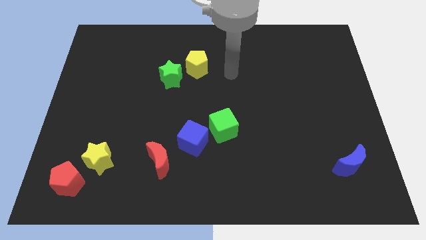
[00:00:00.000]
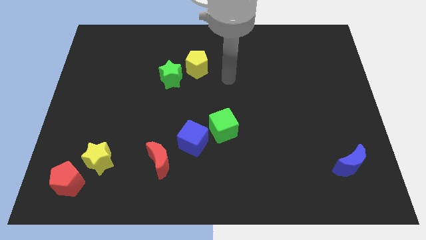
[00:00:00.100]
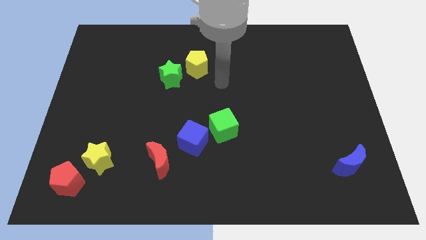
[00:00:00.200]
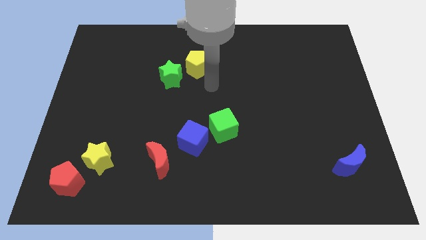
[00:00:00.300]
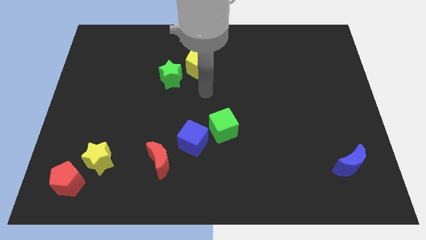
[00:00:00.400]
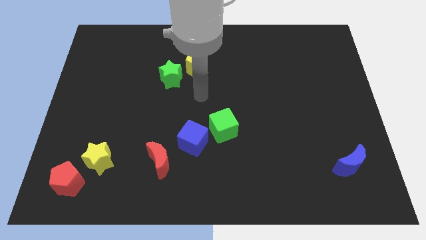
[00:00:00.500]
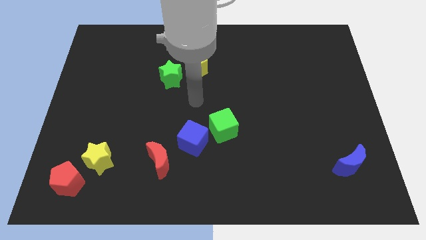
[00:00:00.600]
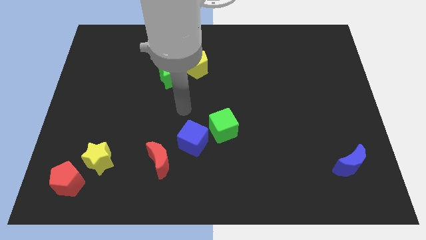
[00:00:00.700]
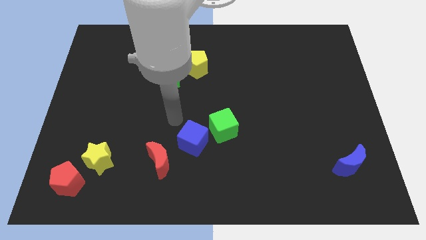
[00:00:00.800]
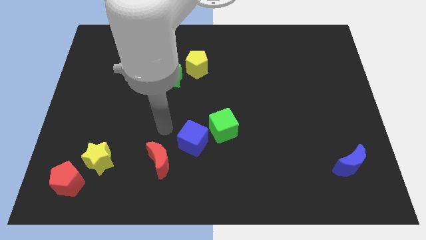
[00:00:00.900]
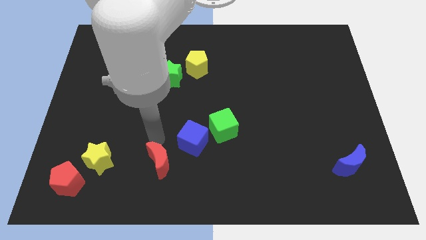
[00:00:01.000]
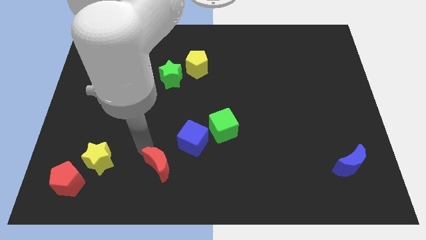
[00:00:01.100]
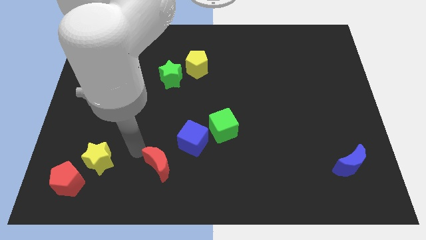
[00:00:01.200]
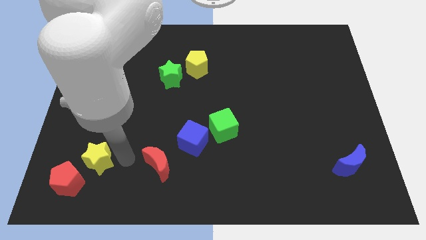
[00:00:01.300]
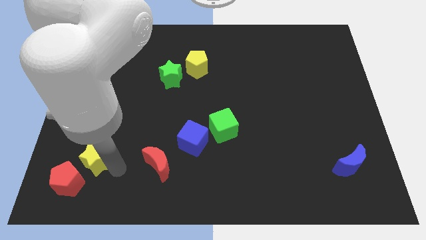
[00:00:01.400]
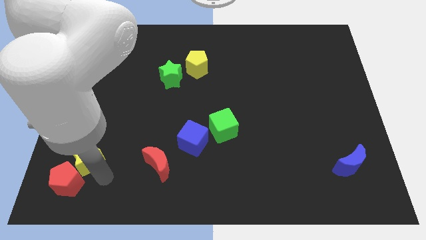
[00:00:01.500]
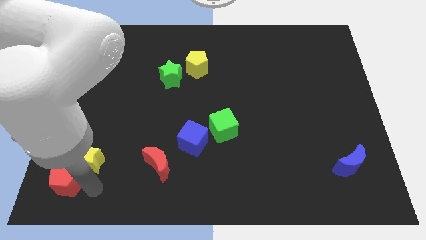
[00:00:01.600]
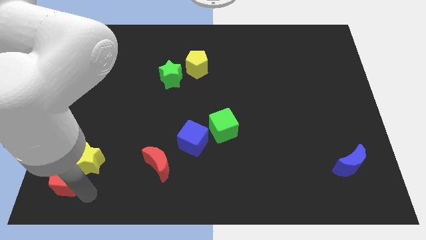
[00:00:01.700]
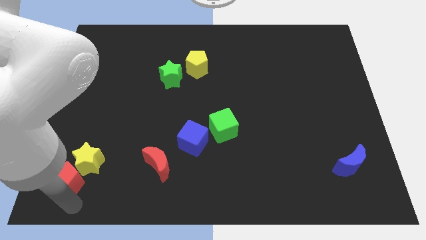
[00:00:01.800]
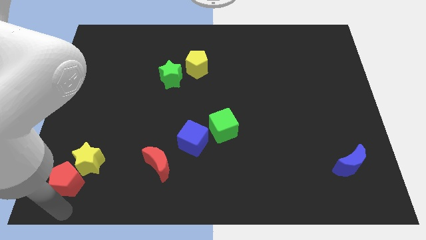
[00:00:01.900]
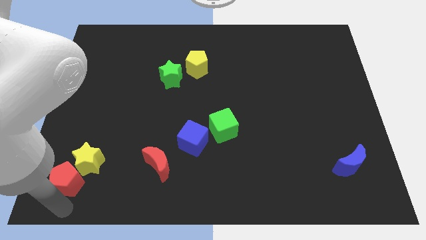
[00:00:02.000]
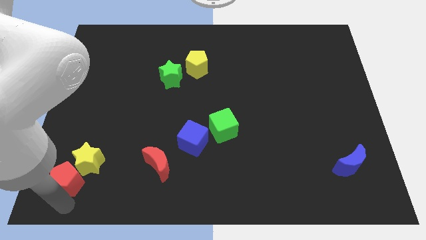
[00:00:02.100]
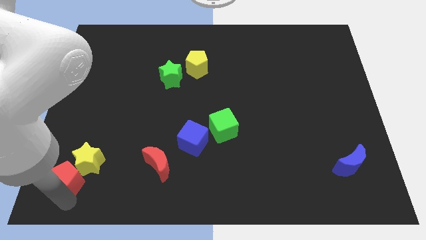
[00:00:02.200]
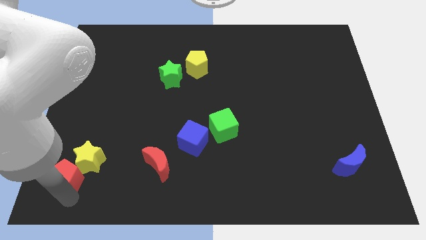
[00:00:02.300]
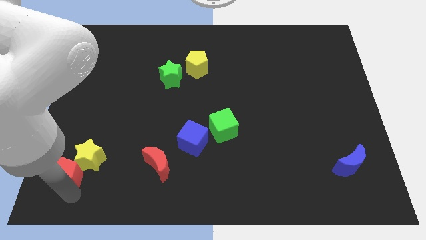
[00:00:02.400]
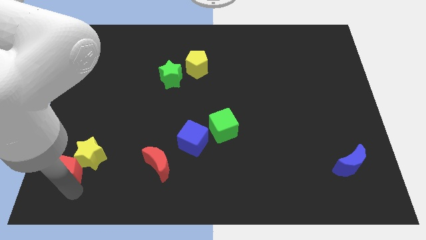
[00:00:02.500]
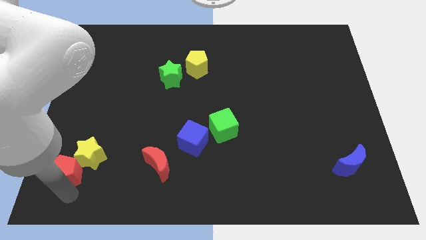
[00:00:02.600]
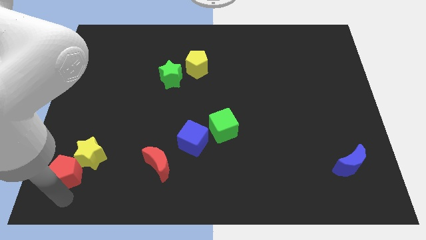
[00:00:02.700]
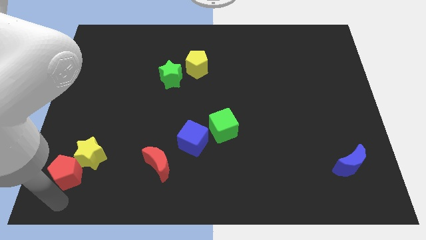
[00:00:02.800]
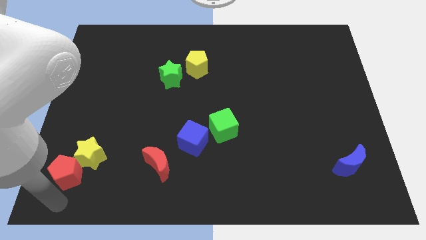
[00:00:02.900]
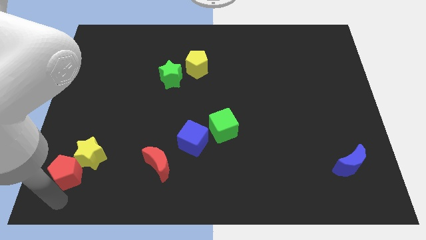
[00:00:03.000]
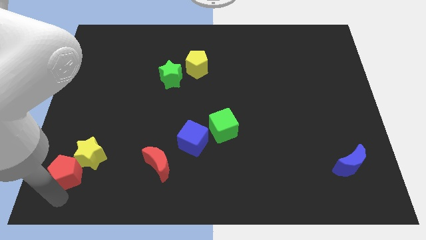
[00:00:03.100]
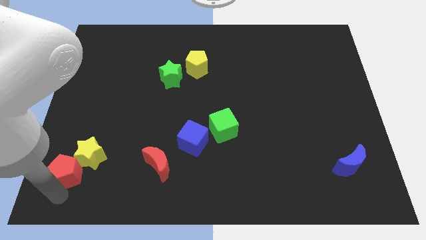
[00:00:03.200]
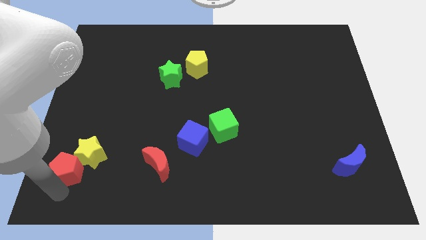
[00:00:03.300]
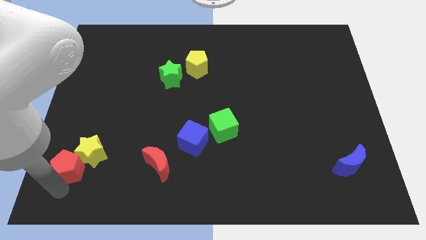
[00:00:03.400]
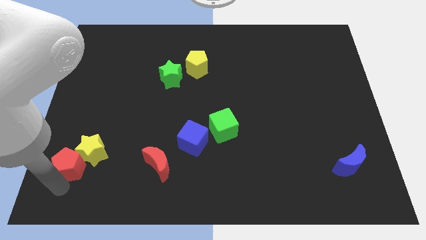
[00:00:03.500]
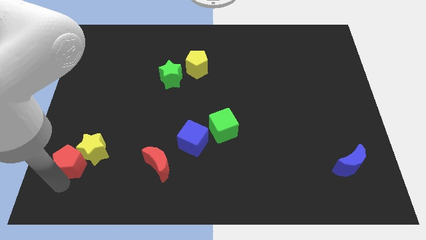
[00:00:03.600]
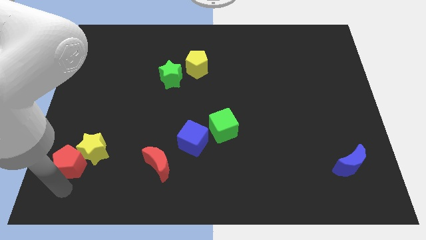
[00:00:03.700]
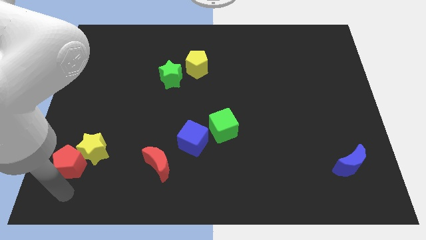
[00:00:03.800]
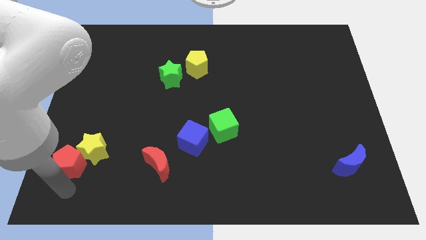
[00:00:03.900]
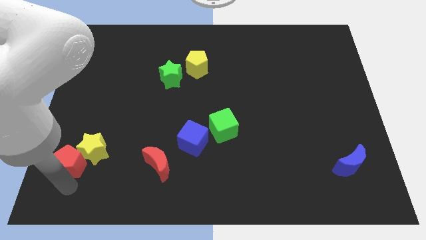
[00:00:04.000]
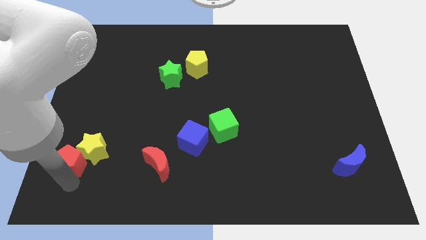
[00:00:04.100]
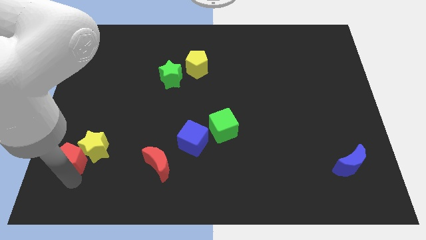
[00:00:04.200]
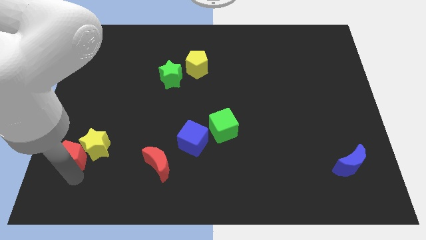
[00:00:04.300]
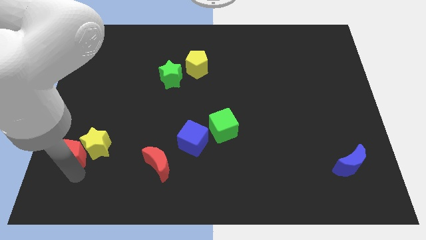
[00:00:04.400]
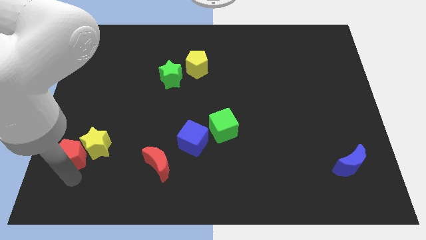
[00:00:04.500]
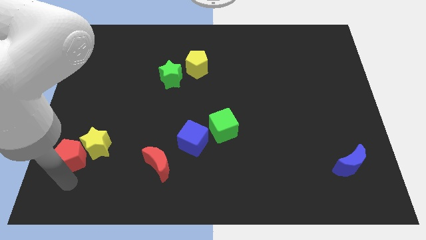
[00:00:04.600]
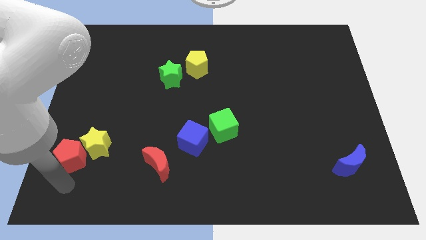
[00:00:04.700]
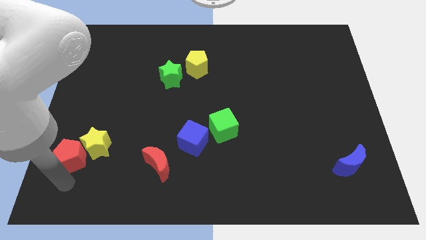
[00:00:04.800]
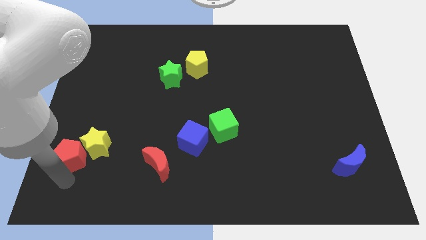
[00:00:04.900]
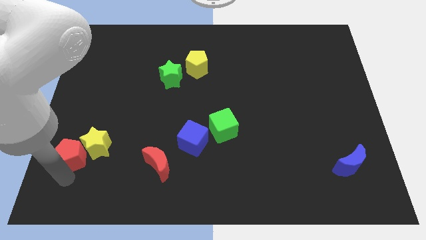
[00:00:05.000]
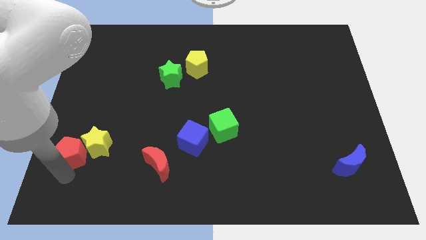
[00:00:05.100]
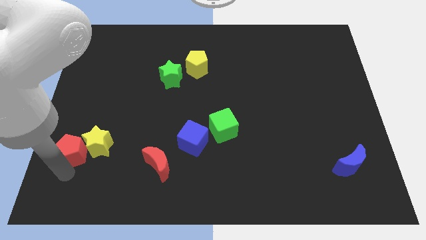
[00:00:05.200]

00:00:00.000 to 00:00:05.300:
slightly push the red pentagon upwards

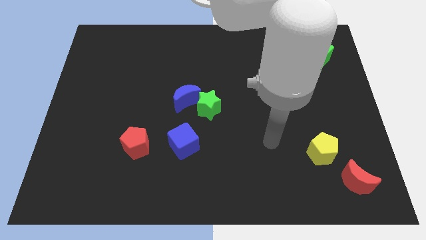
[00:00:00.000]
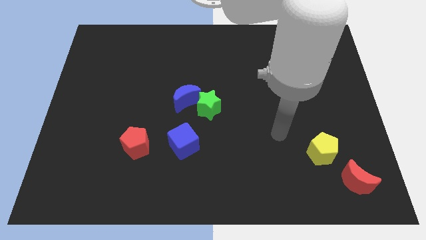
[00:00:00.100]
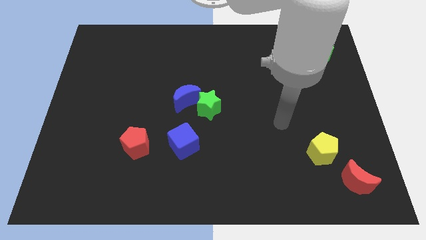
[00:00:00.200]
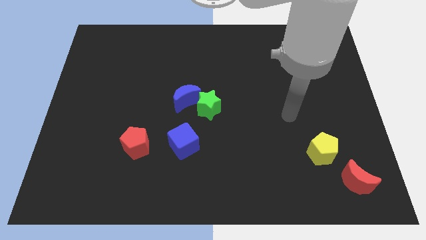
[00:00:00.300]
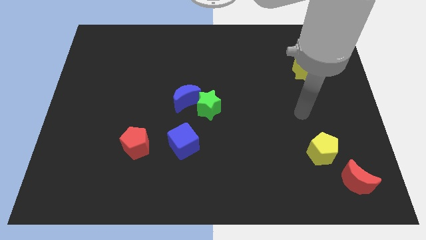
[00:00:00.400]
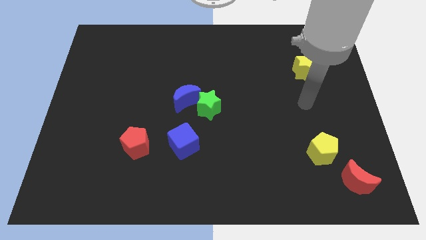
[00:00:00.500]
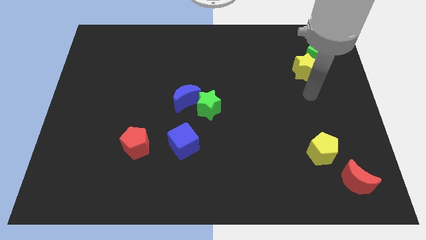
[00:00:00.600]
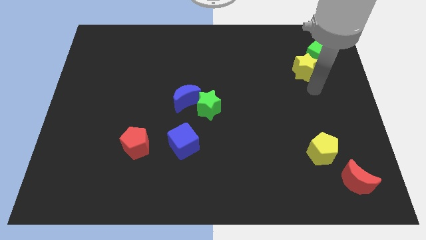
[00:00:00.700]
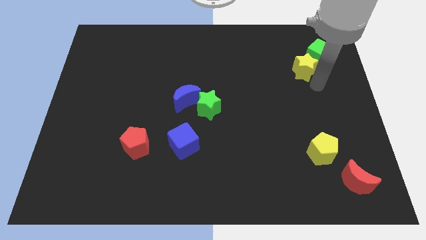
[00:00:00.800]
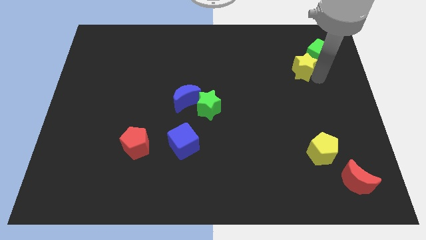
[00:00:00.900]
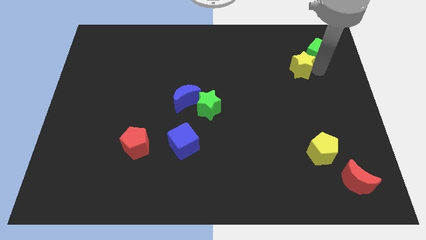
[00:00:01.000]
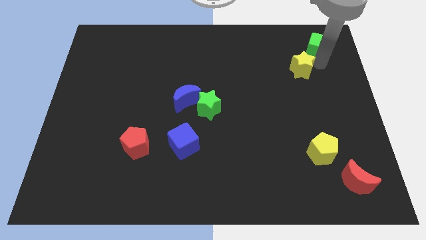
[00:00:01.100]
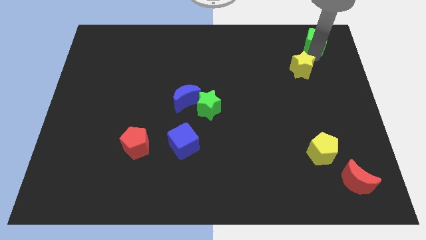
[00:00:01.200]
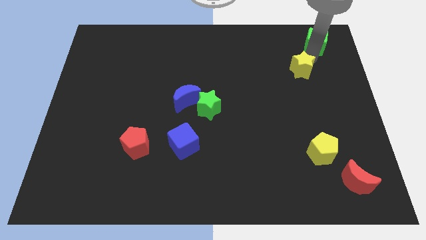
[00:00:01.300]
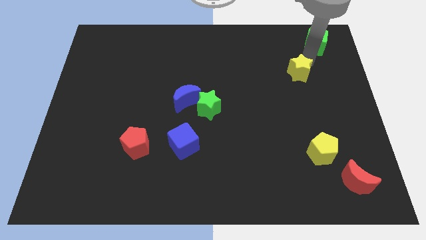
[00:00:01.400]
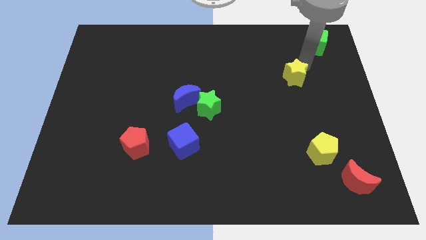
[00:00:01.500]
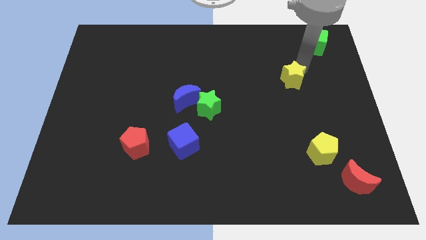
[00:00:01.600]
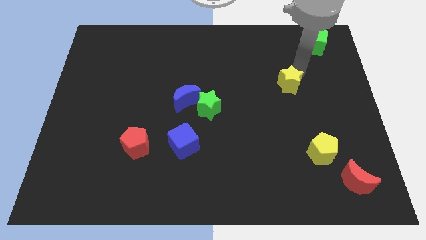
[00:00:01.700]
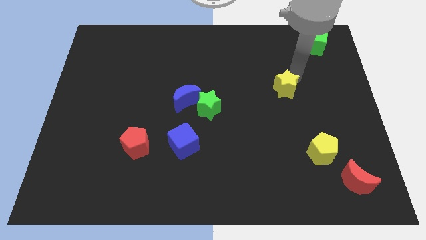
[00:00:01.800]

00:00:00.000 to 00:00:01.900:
slightly move the yellow star downwards and then to the left

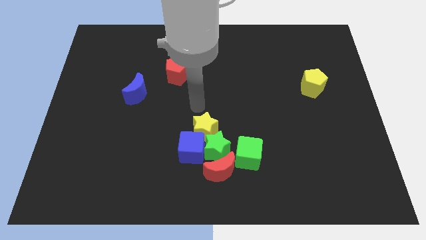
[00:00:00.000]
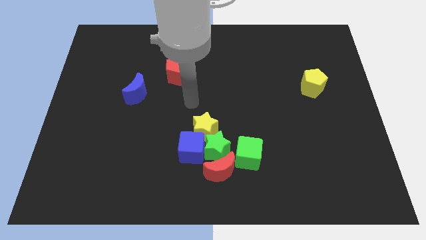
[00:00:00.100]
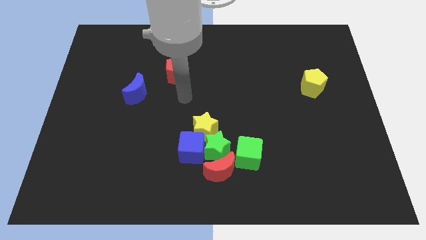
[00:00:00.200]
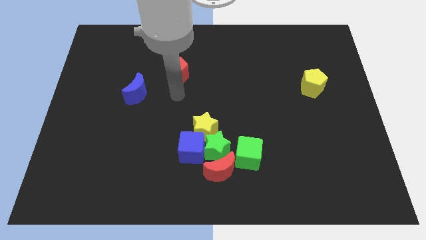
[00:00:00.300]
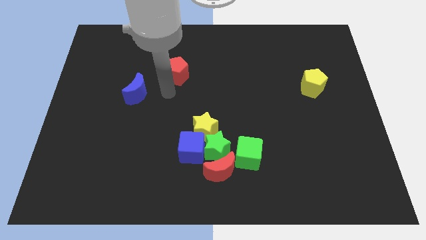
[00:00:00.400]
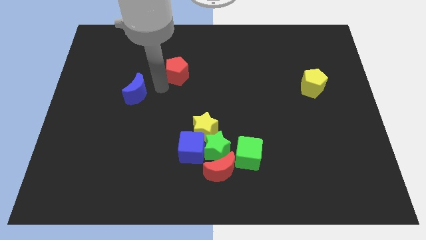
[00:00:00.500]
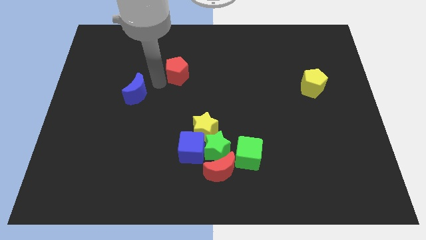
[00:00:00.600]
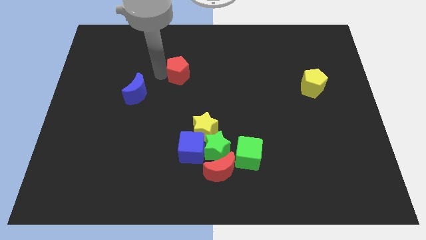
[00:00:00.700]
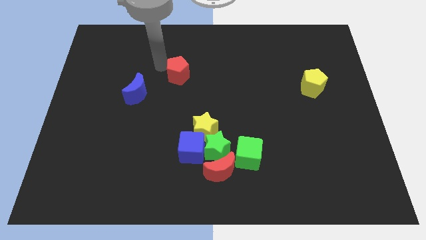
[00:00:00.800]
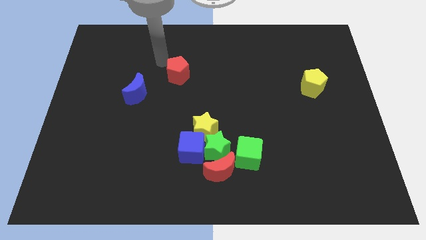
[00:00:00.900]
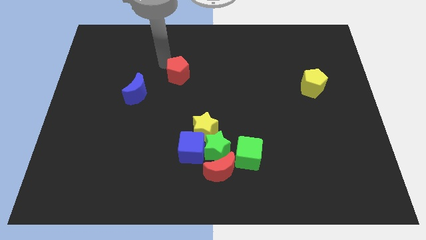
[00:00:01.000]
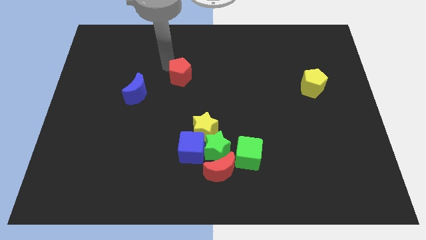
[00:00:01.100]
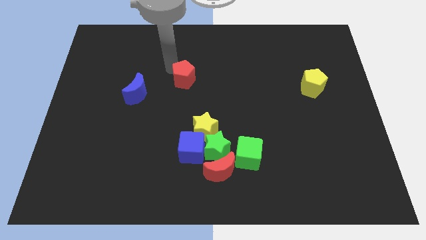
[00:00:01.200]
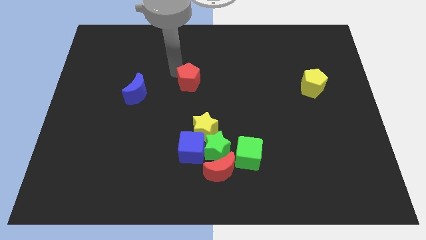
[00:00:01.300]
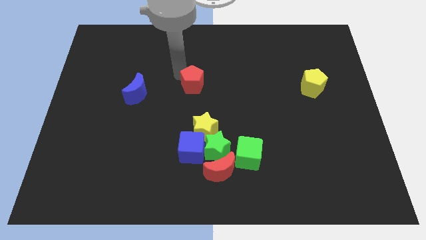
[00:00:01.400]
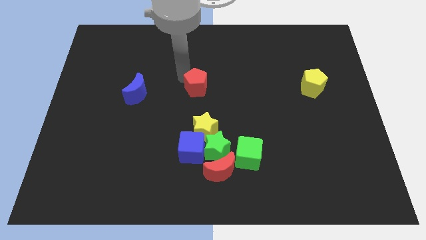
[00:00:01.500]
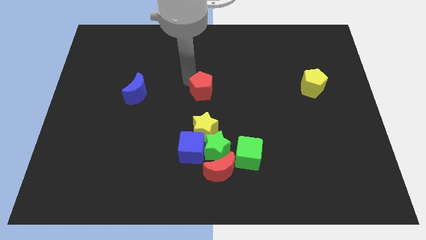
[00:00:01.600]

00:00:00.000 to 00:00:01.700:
slightly move the red pentagon down and right diagonally
